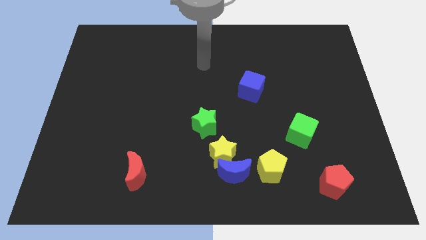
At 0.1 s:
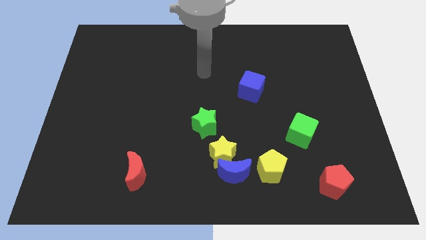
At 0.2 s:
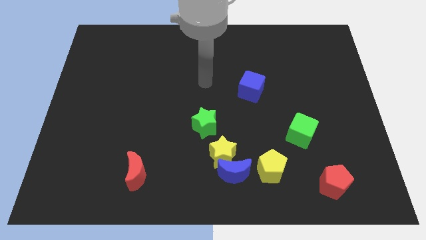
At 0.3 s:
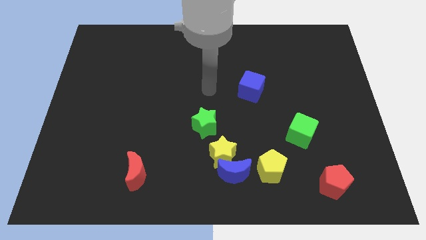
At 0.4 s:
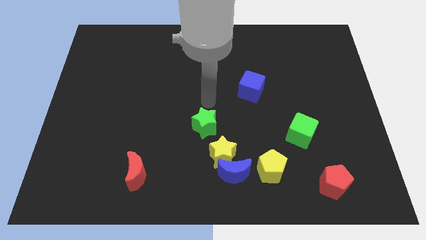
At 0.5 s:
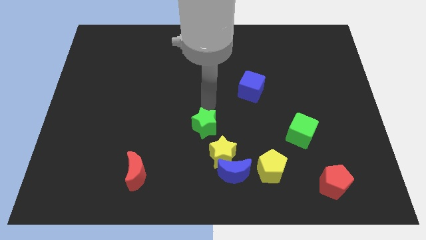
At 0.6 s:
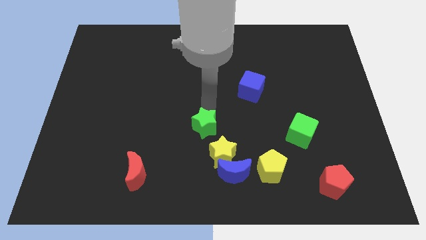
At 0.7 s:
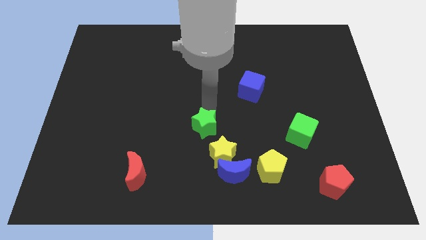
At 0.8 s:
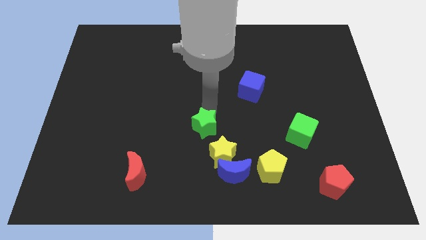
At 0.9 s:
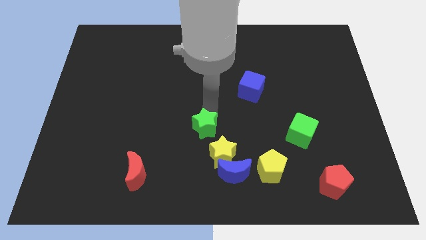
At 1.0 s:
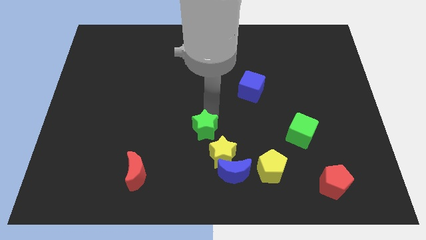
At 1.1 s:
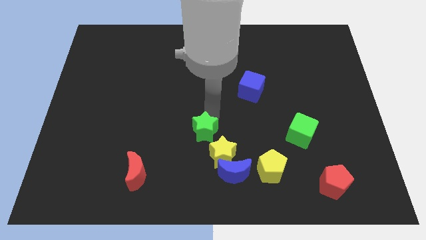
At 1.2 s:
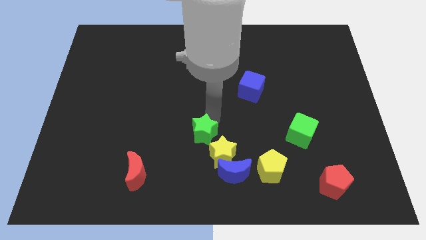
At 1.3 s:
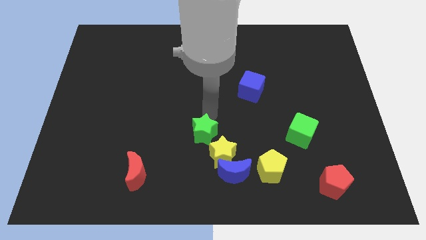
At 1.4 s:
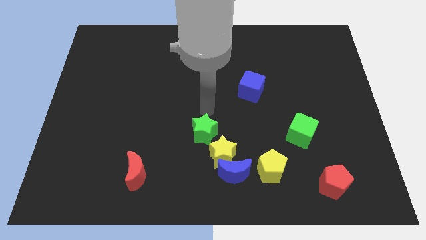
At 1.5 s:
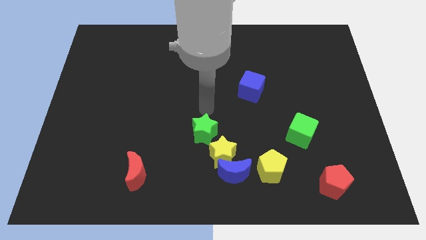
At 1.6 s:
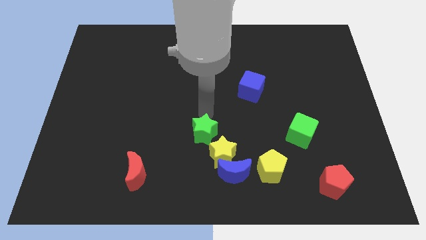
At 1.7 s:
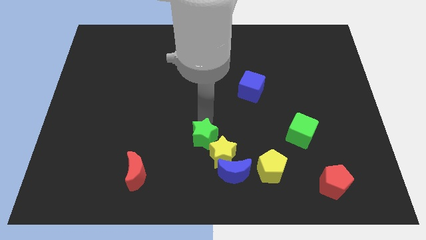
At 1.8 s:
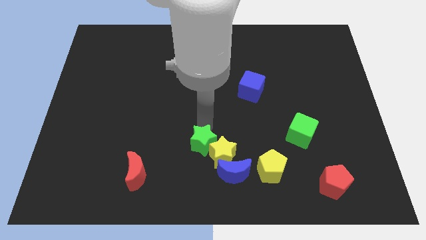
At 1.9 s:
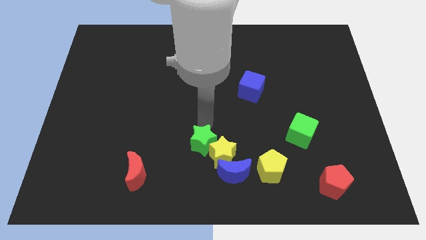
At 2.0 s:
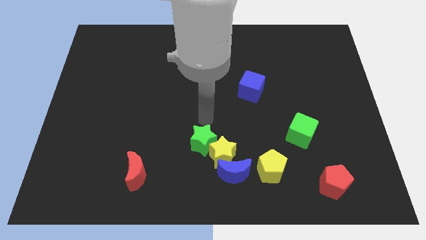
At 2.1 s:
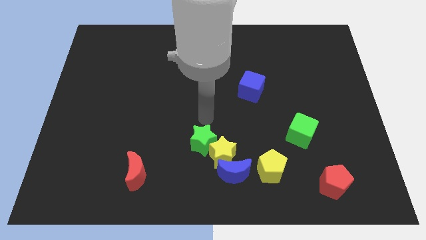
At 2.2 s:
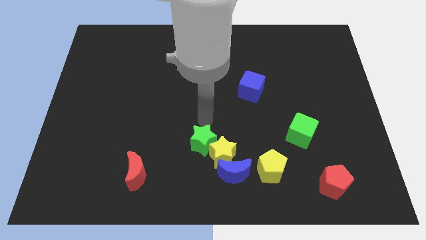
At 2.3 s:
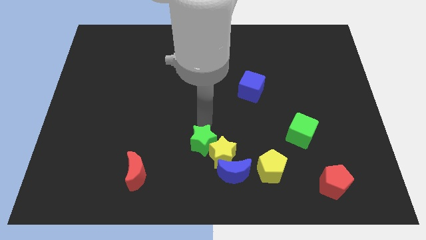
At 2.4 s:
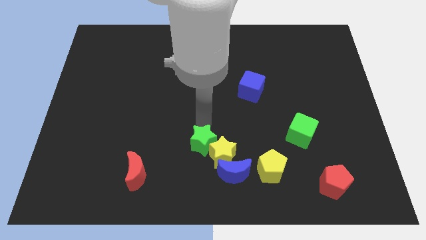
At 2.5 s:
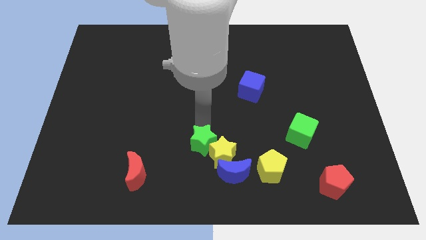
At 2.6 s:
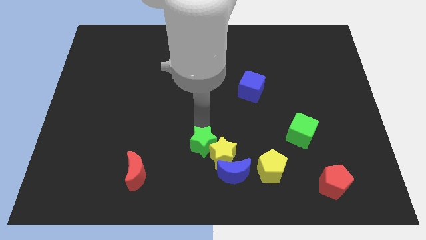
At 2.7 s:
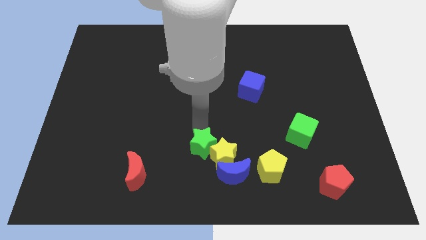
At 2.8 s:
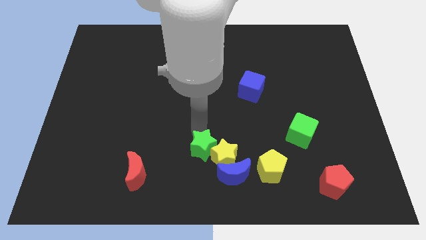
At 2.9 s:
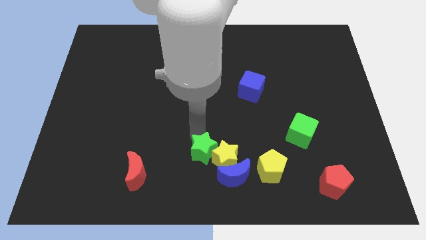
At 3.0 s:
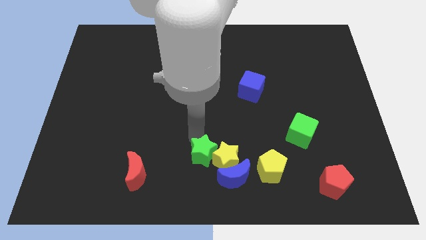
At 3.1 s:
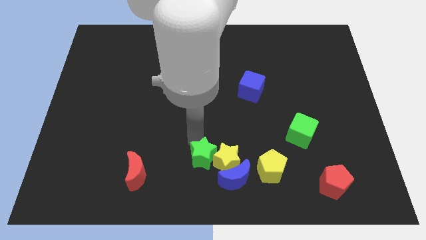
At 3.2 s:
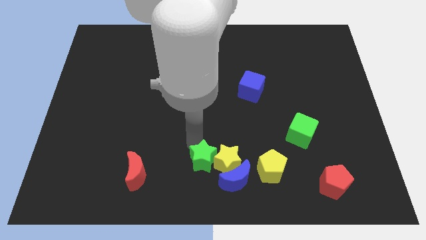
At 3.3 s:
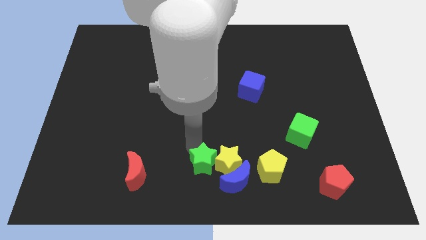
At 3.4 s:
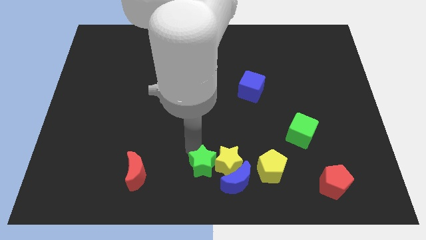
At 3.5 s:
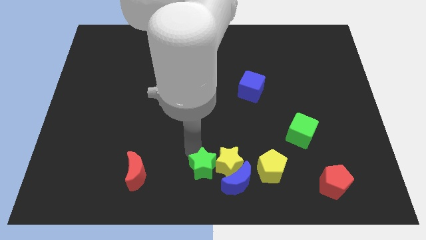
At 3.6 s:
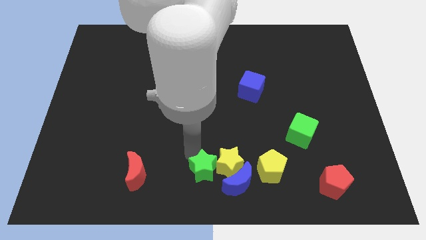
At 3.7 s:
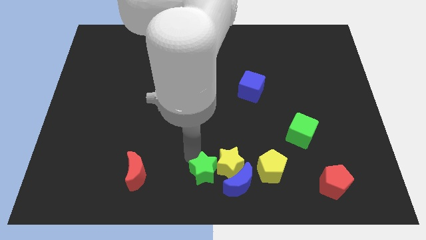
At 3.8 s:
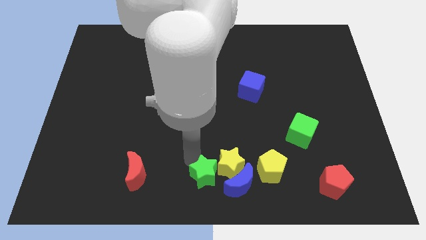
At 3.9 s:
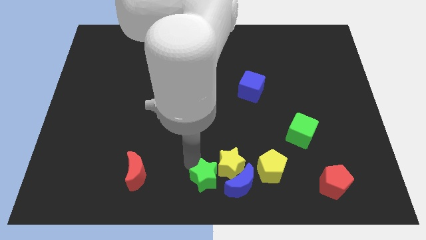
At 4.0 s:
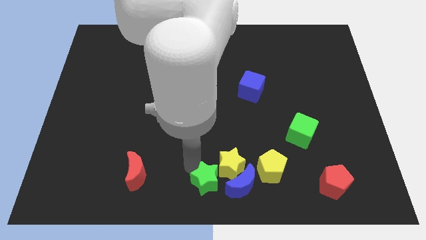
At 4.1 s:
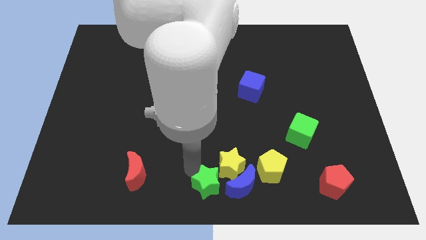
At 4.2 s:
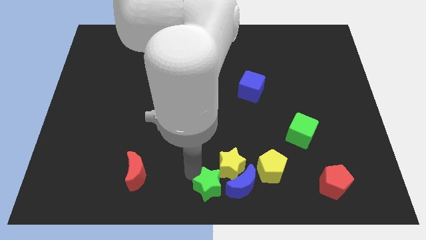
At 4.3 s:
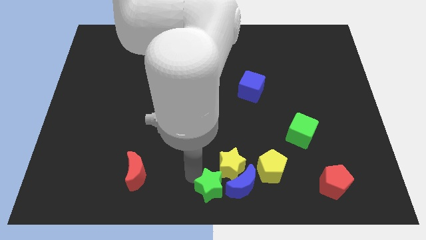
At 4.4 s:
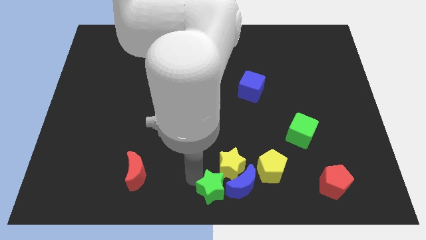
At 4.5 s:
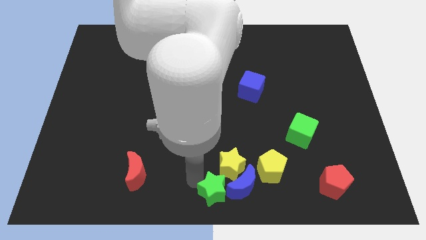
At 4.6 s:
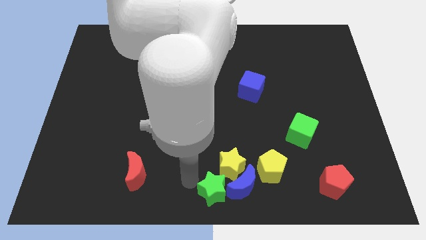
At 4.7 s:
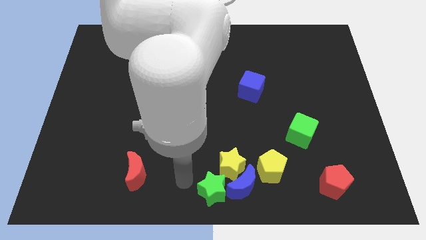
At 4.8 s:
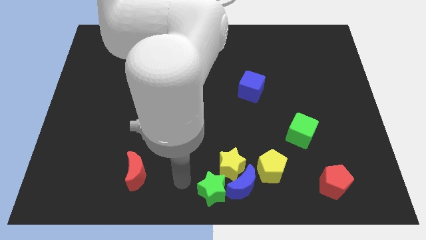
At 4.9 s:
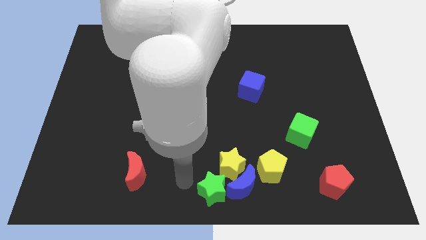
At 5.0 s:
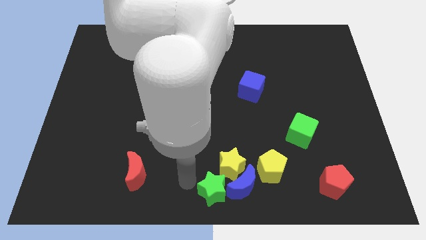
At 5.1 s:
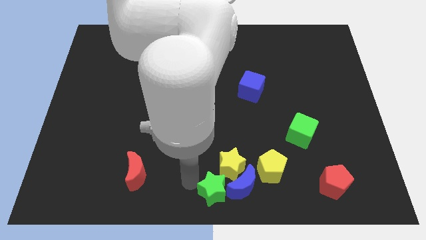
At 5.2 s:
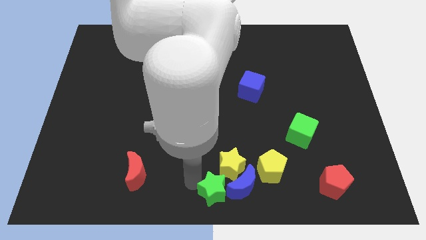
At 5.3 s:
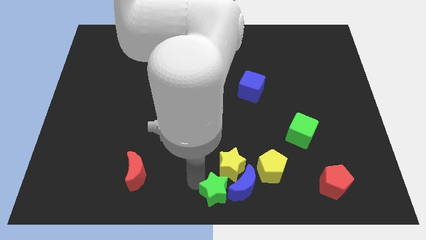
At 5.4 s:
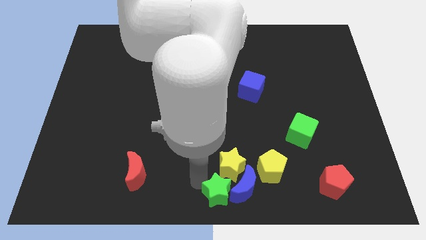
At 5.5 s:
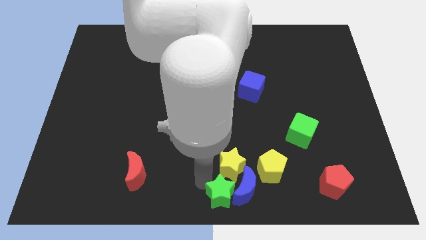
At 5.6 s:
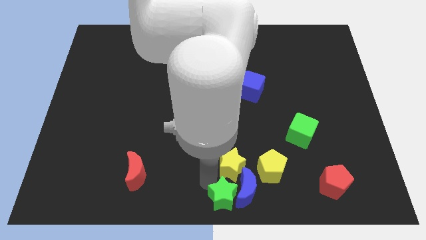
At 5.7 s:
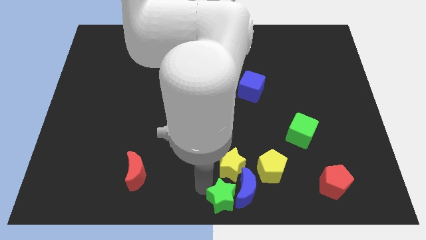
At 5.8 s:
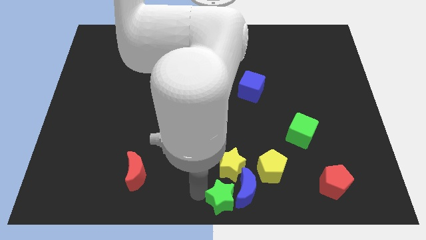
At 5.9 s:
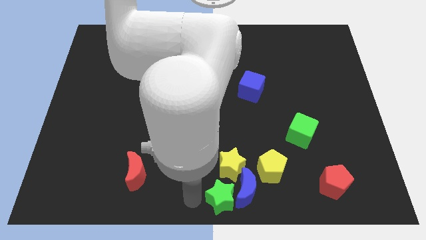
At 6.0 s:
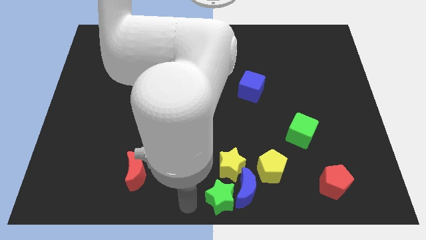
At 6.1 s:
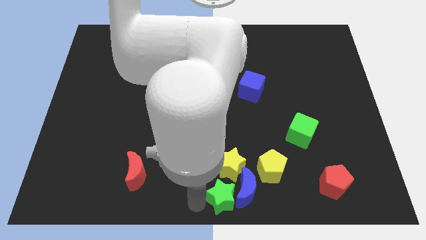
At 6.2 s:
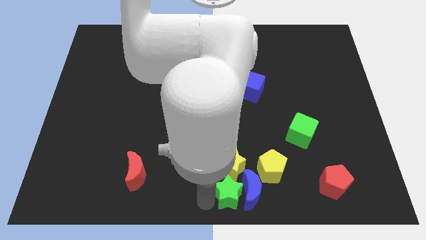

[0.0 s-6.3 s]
slide the green star to the bottom right side of the yellow star

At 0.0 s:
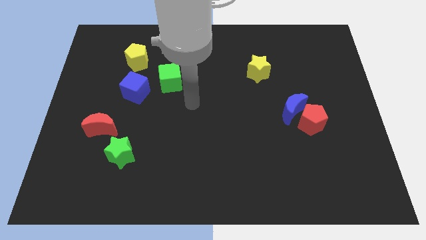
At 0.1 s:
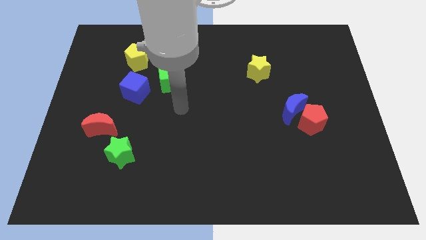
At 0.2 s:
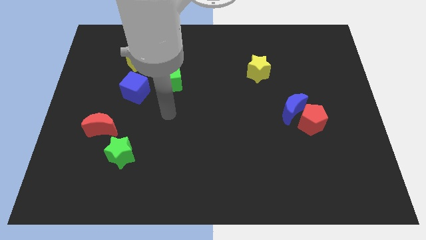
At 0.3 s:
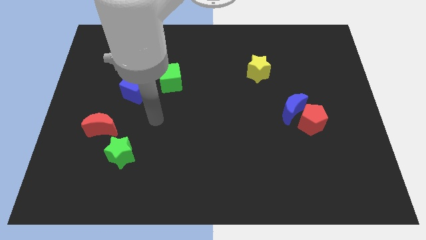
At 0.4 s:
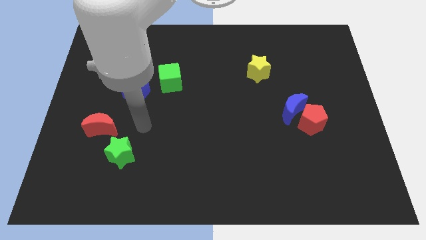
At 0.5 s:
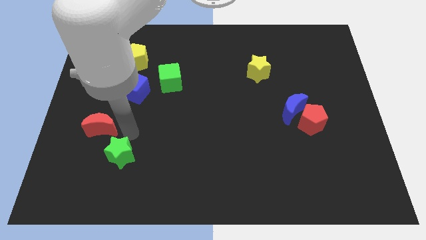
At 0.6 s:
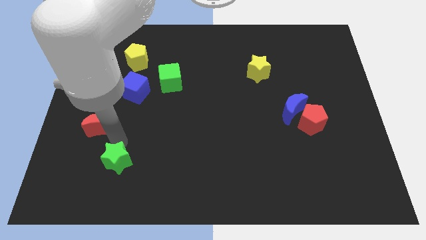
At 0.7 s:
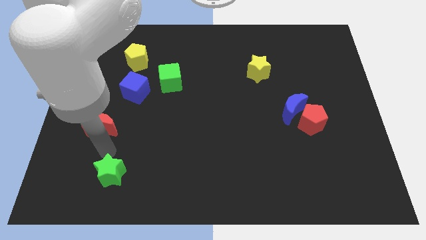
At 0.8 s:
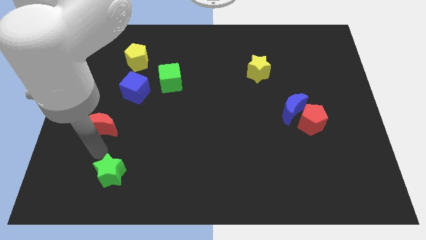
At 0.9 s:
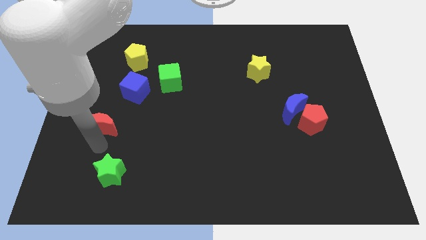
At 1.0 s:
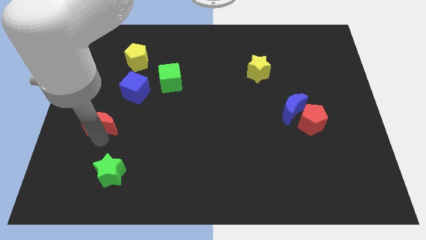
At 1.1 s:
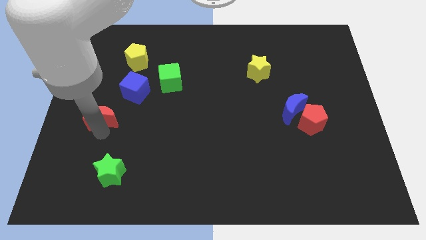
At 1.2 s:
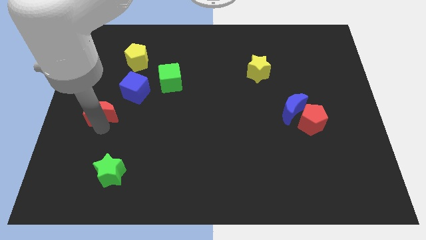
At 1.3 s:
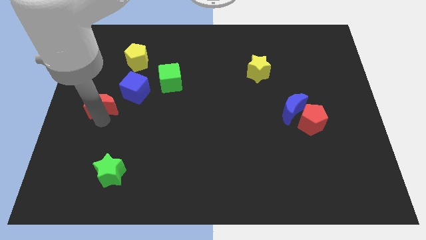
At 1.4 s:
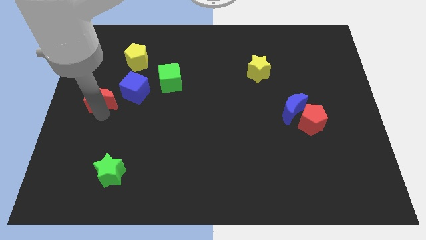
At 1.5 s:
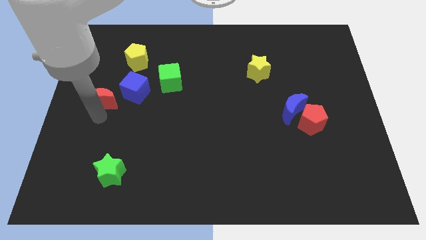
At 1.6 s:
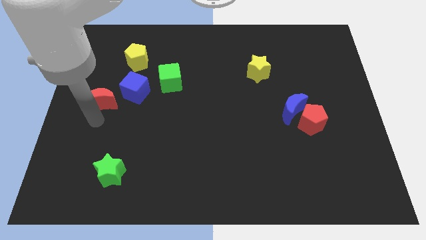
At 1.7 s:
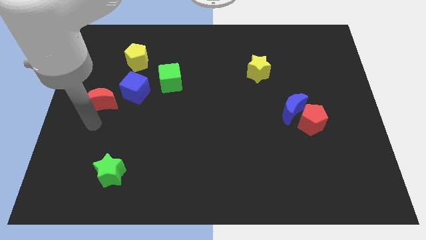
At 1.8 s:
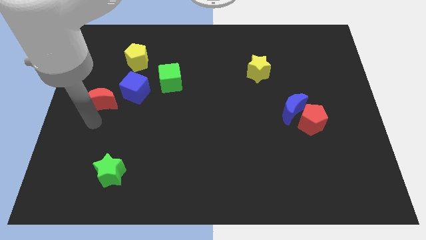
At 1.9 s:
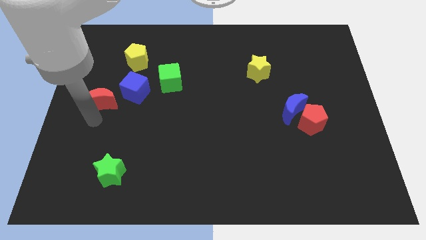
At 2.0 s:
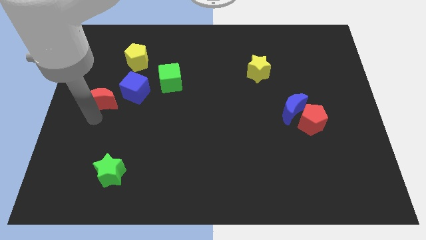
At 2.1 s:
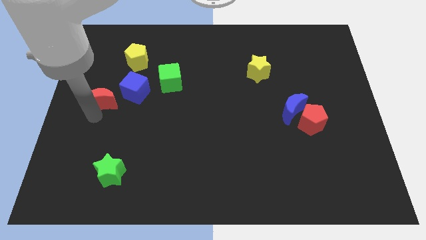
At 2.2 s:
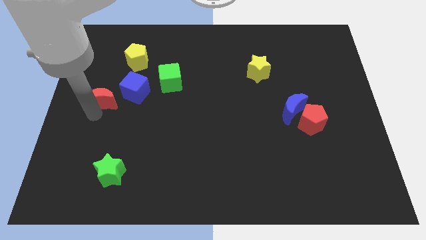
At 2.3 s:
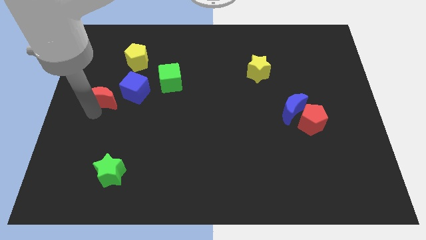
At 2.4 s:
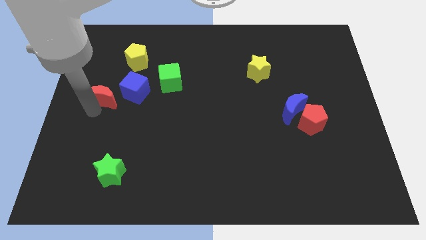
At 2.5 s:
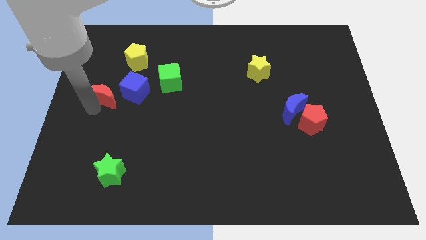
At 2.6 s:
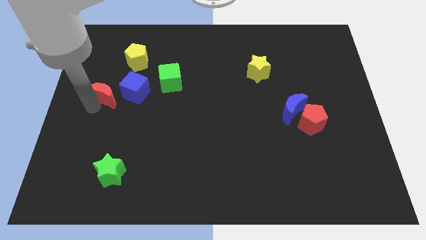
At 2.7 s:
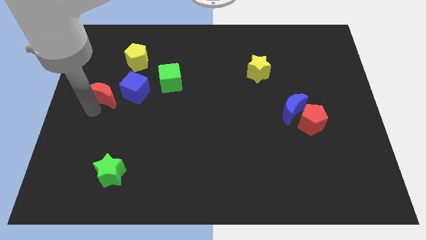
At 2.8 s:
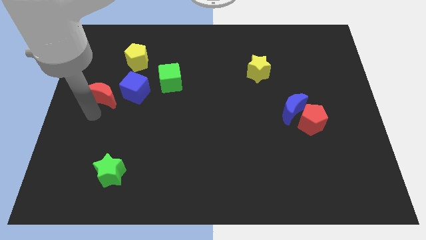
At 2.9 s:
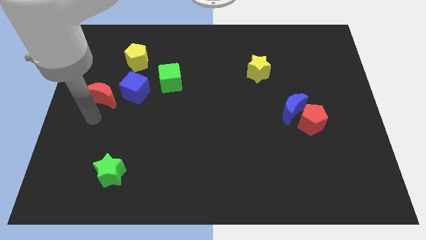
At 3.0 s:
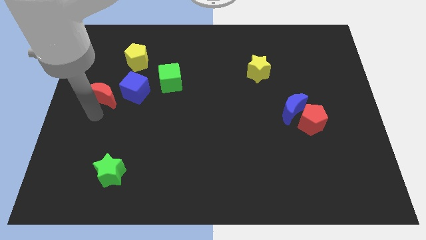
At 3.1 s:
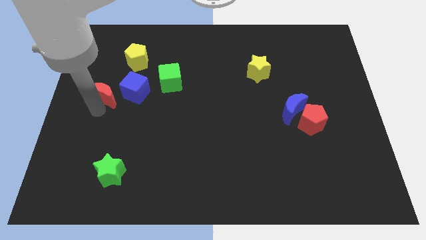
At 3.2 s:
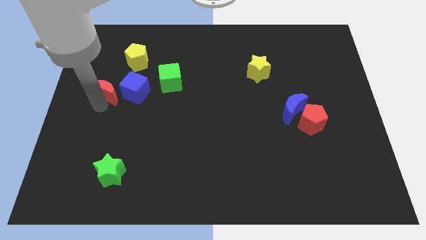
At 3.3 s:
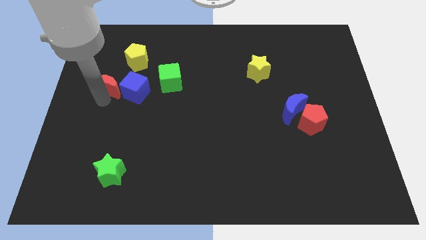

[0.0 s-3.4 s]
move the red moon to the bottom left of the yellow pentagon
